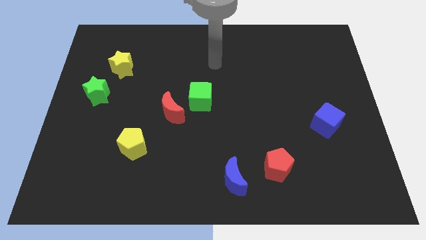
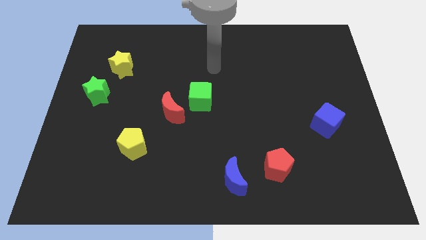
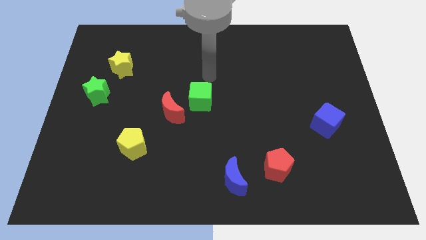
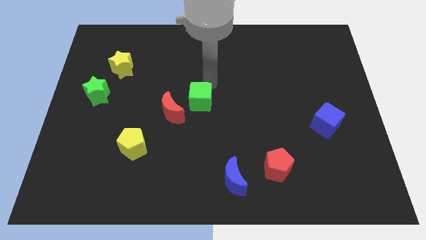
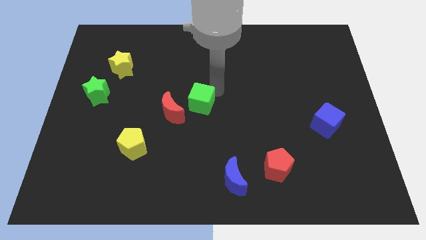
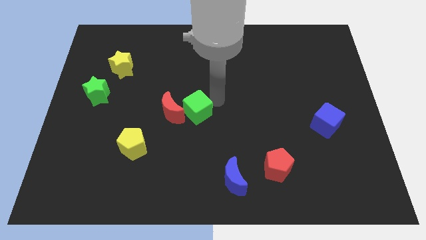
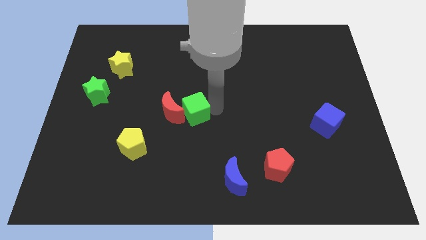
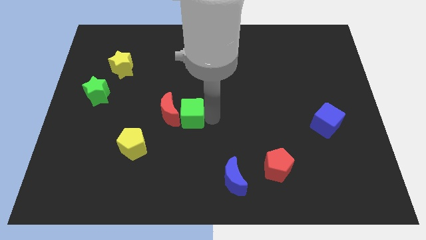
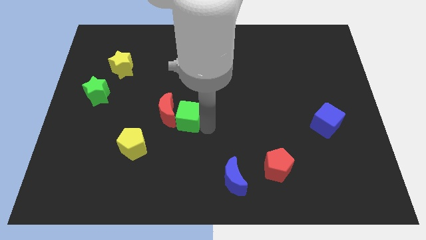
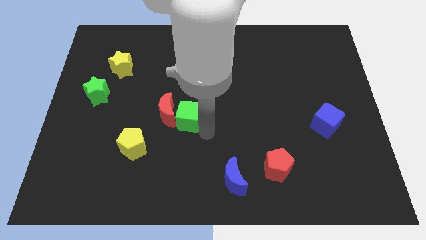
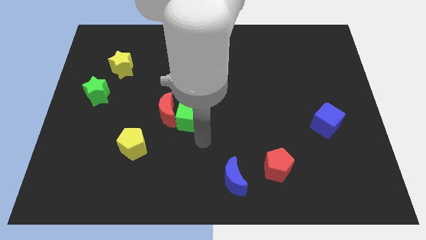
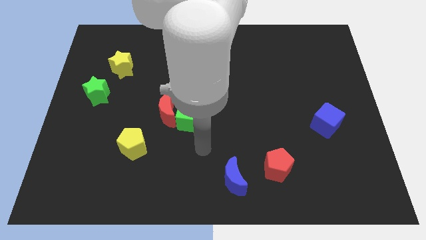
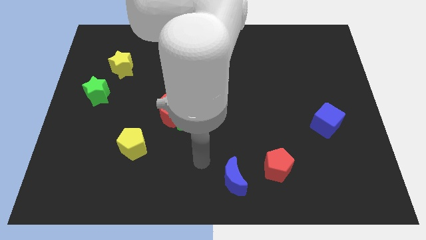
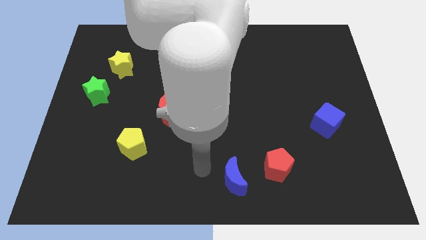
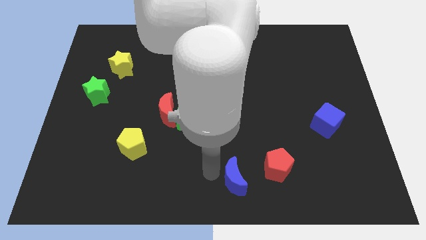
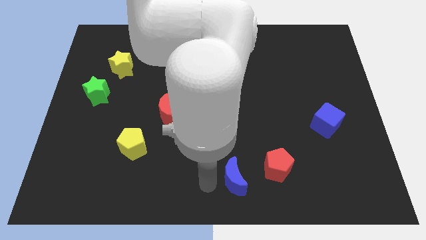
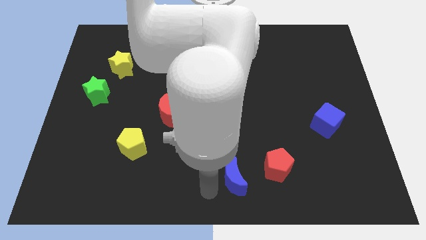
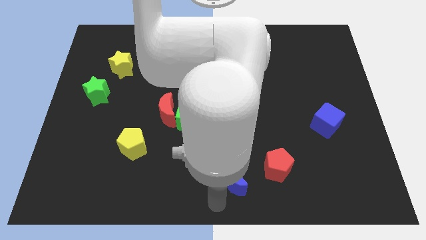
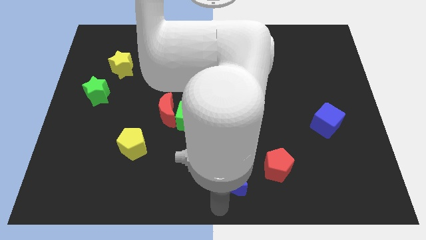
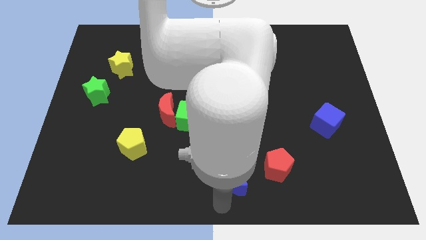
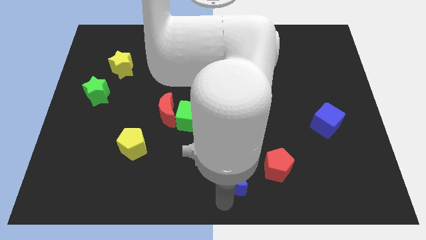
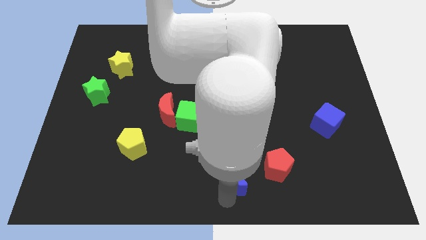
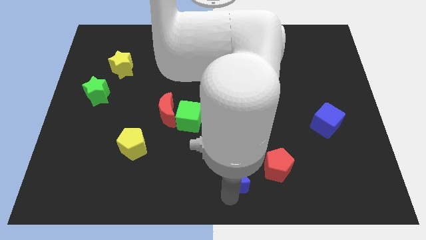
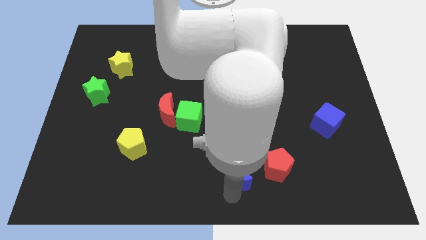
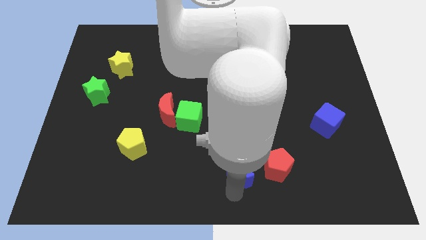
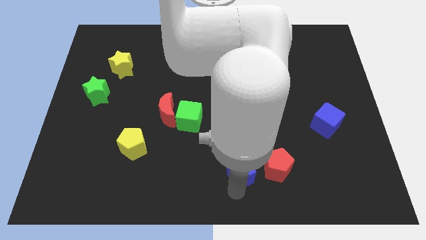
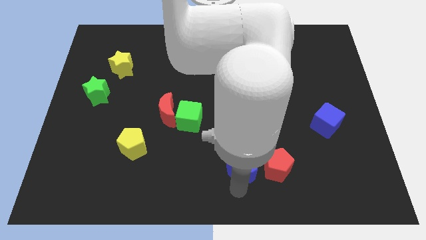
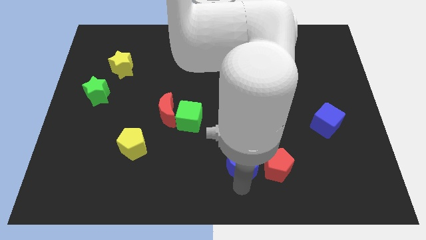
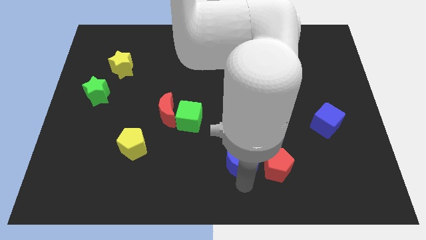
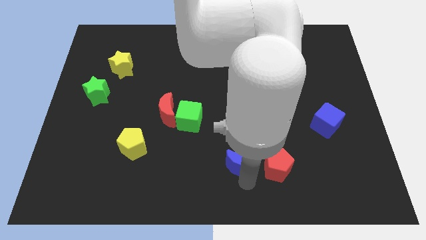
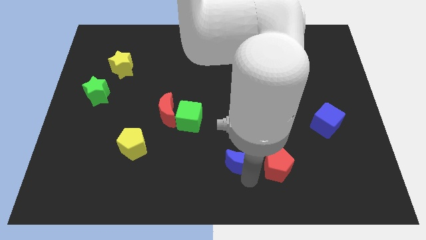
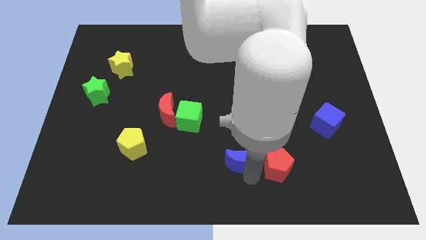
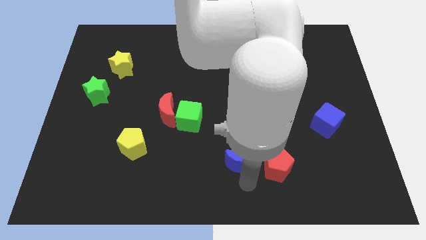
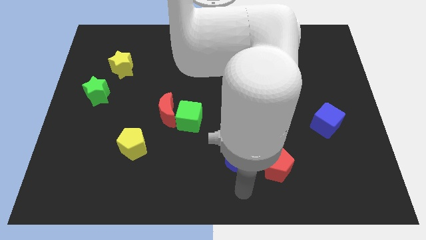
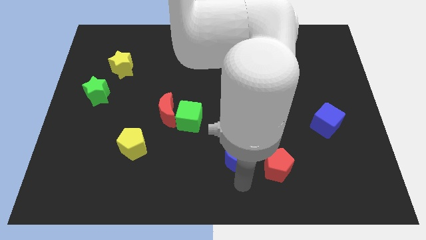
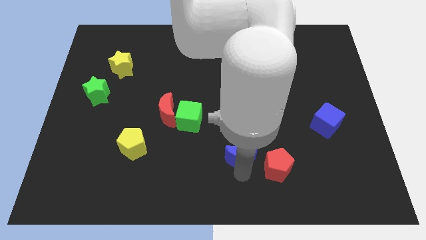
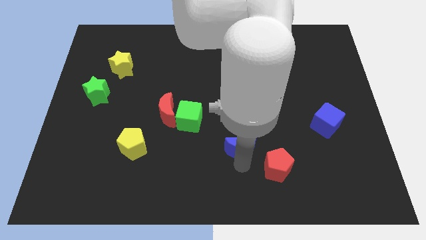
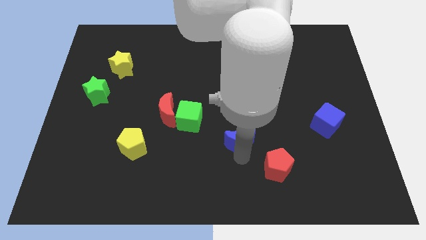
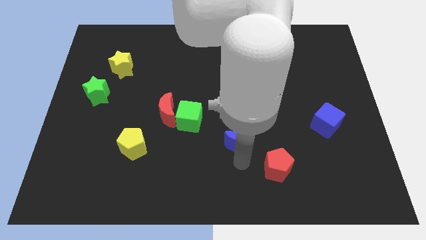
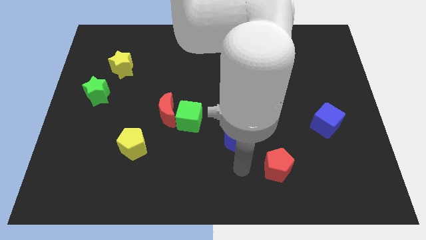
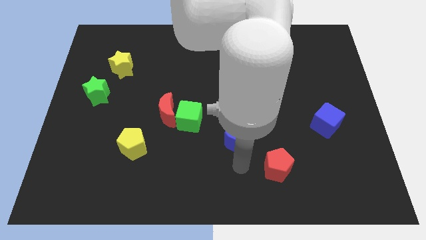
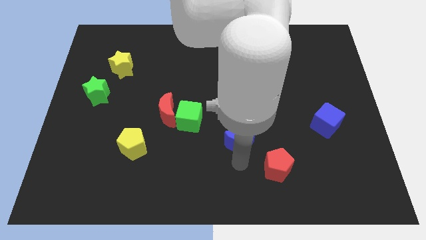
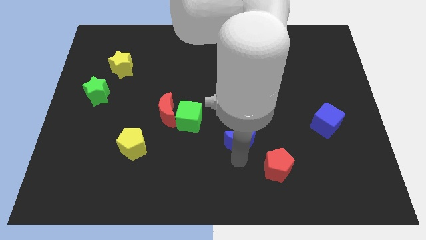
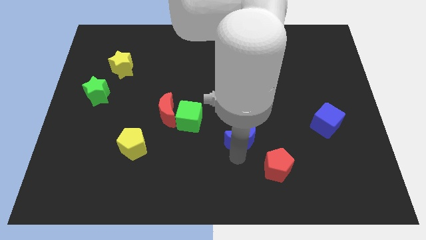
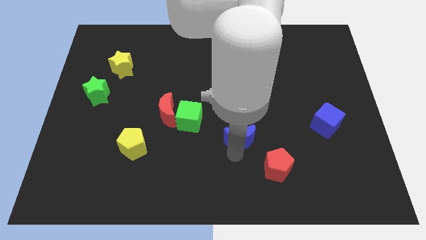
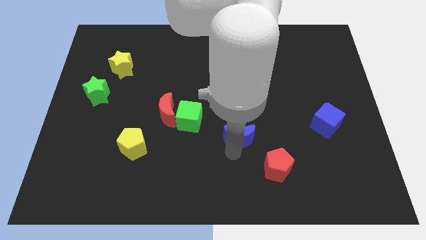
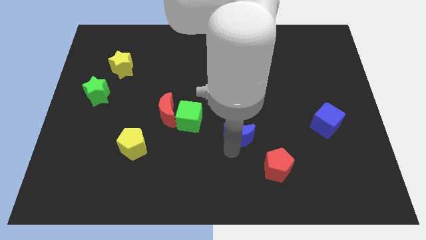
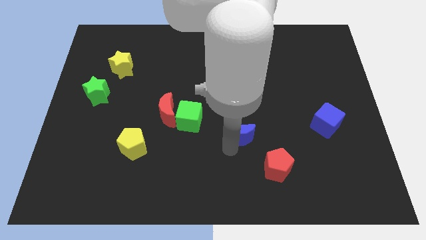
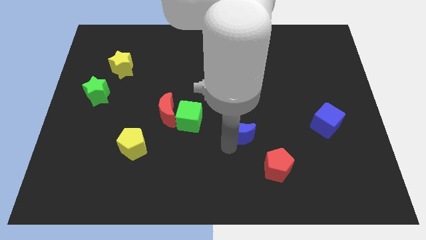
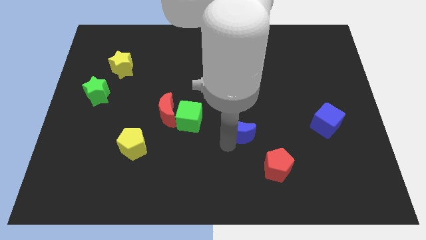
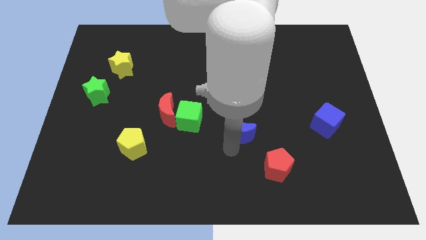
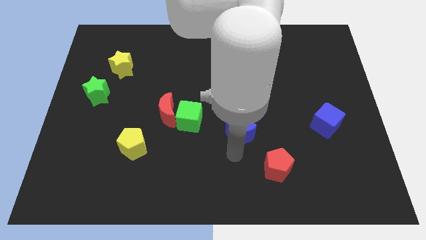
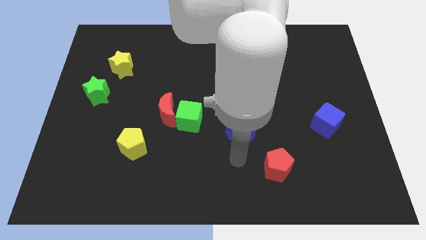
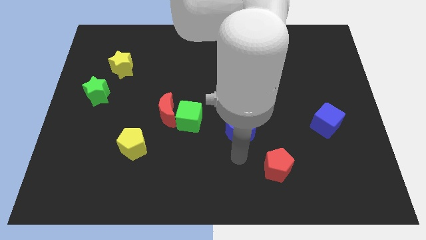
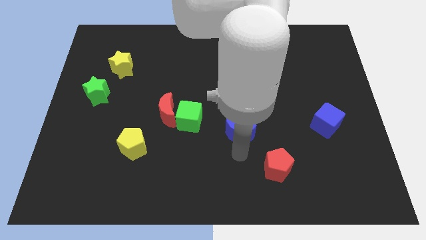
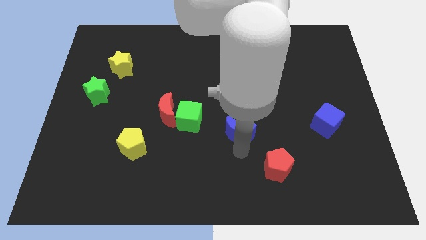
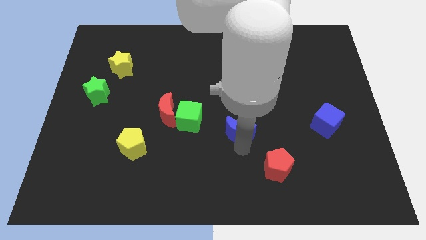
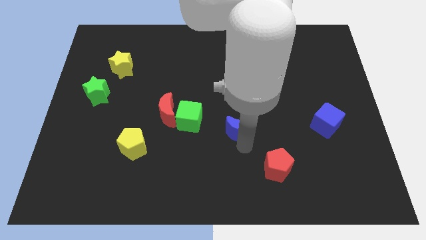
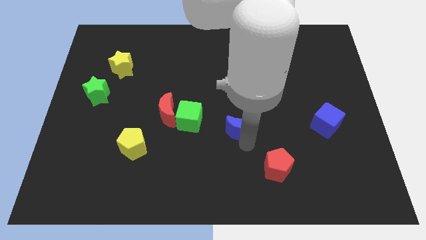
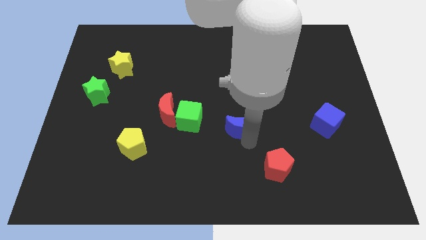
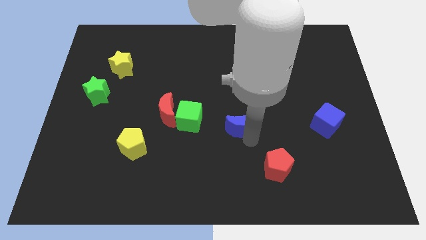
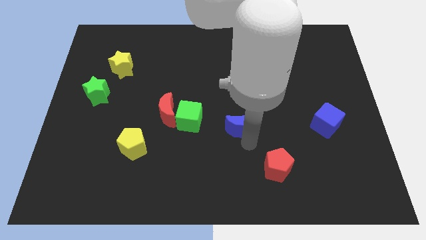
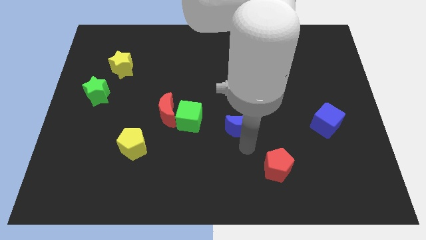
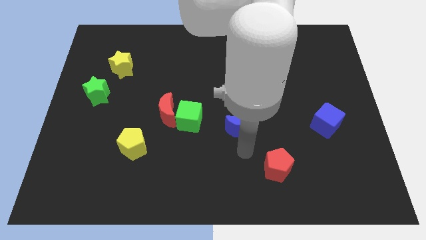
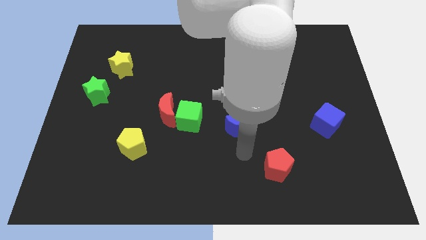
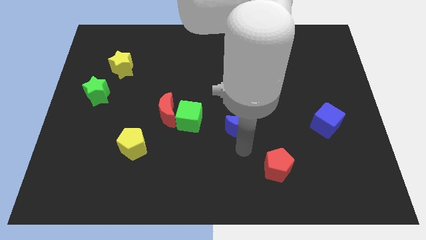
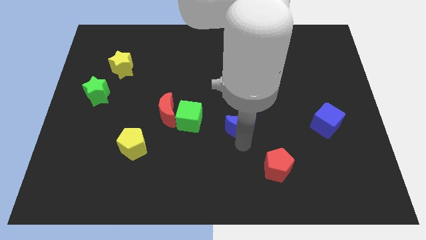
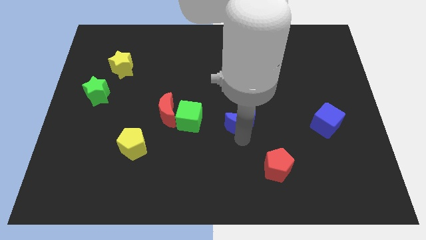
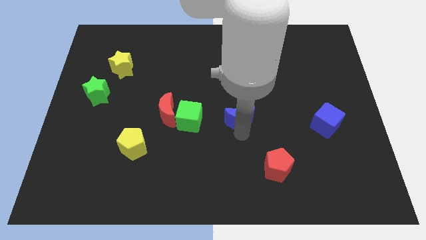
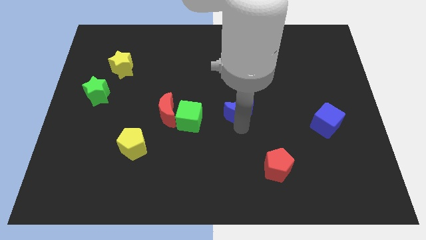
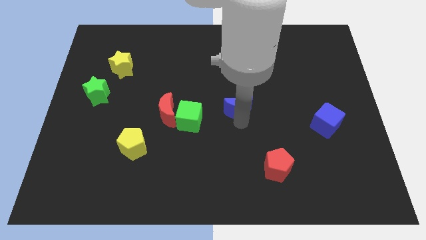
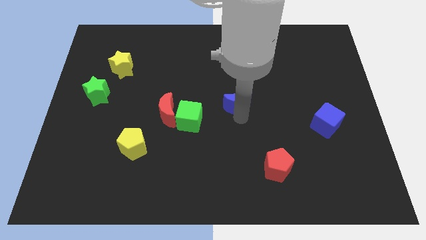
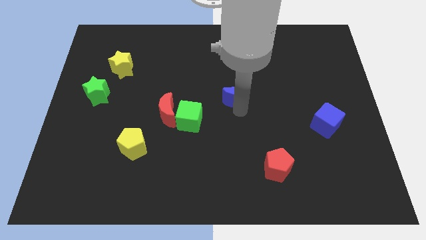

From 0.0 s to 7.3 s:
move the blue moon upwards

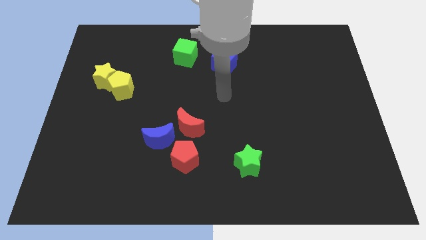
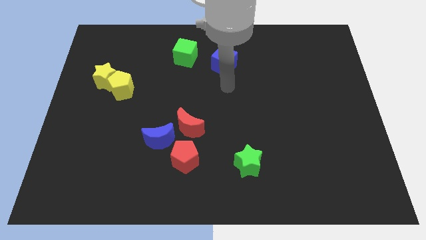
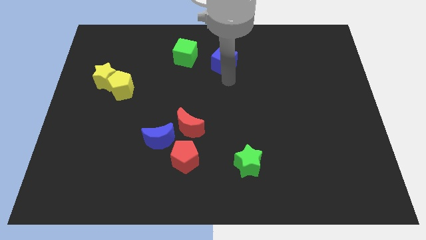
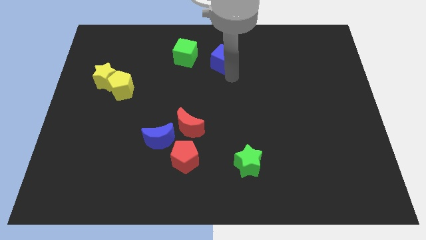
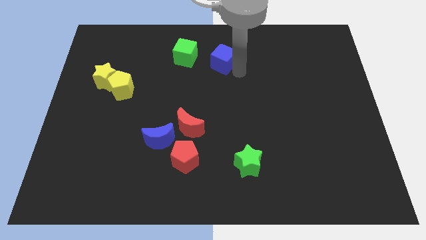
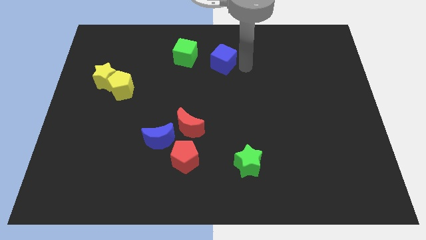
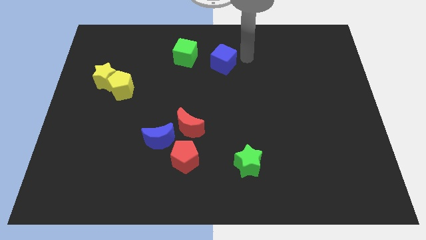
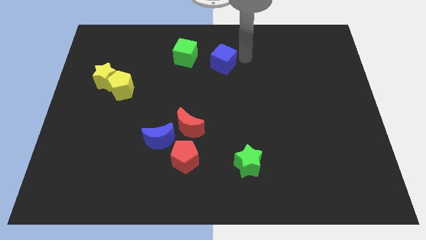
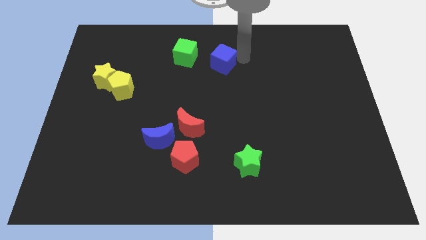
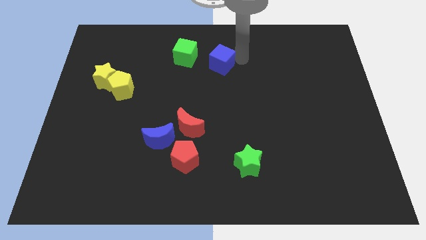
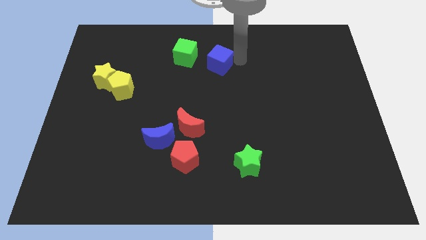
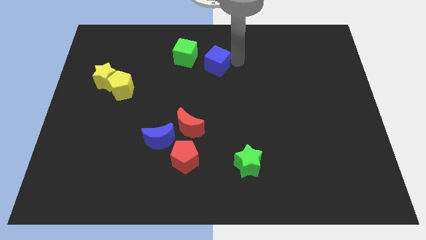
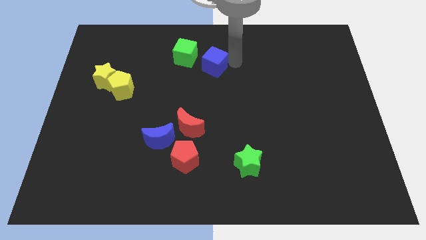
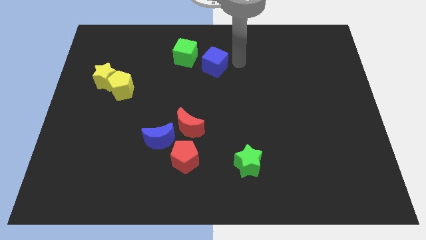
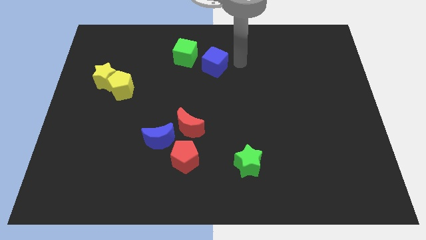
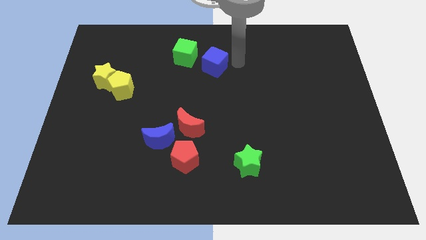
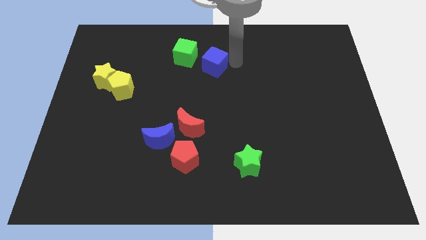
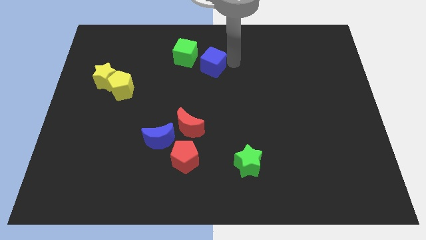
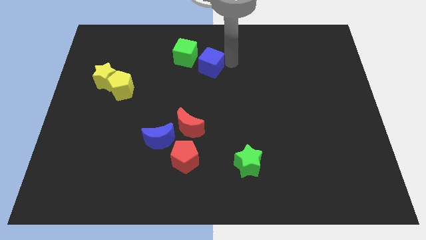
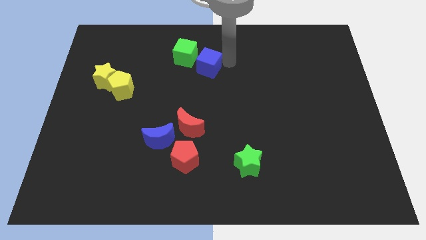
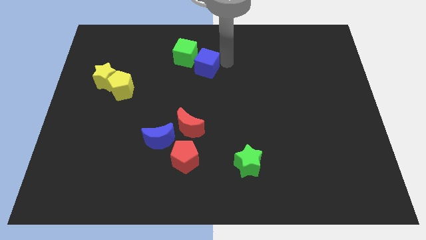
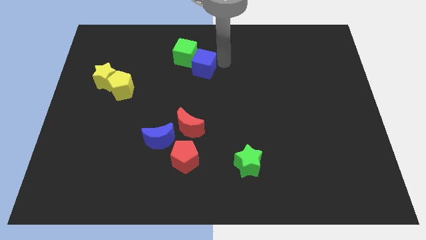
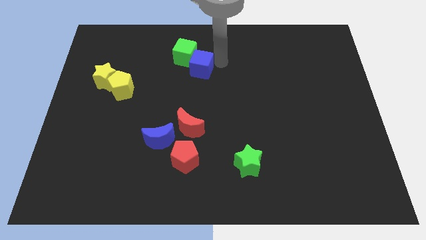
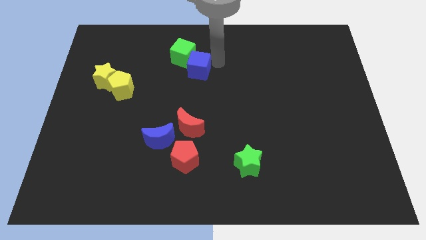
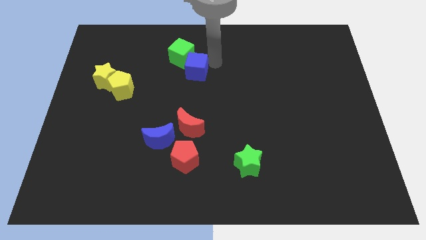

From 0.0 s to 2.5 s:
slide the blue cube left somewhat
